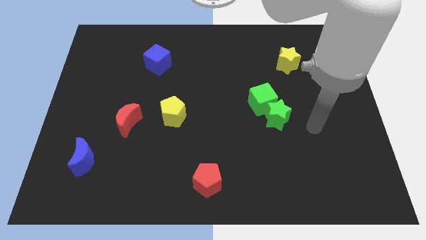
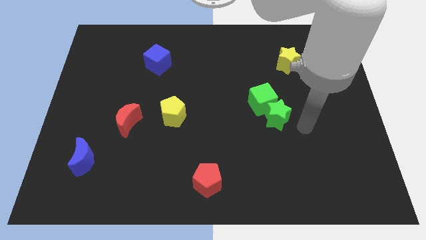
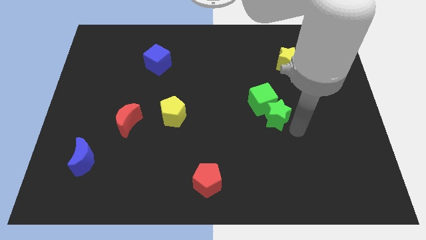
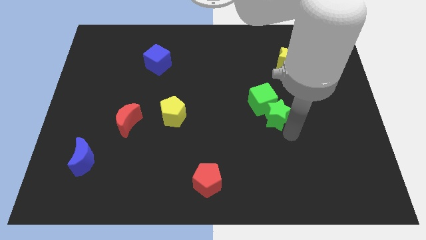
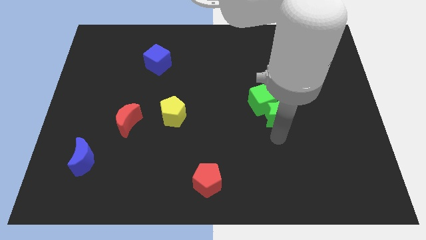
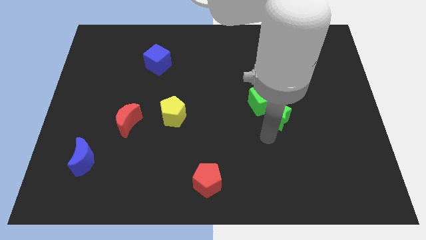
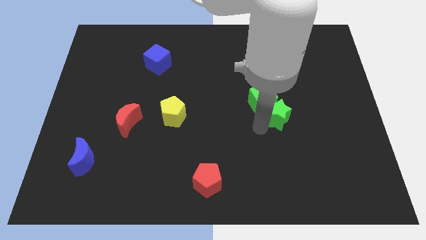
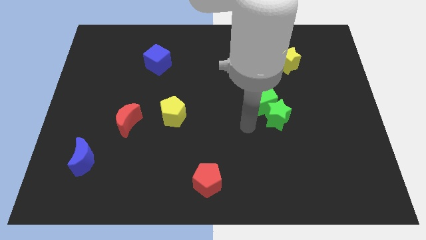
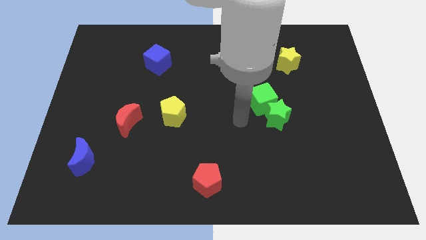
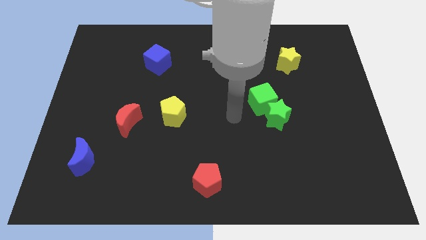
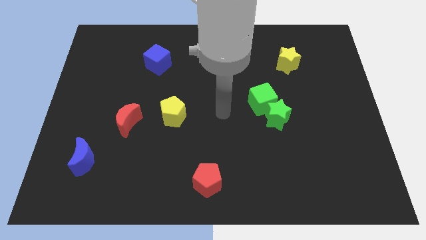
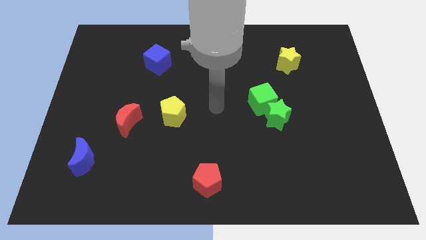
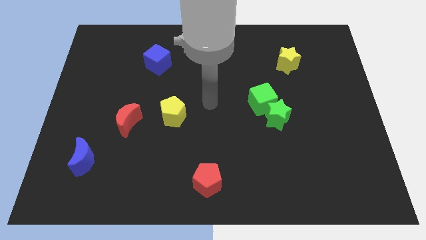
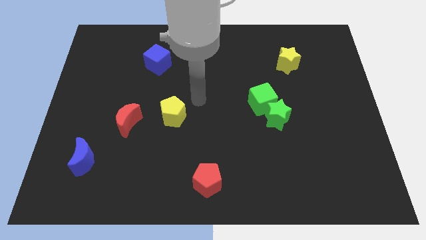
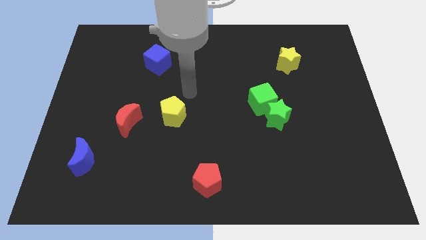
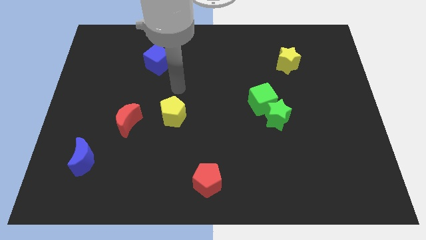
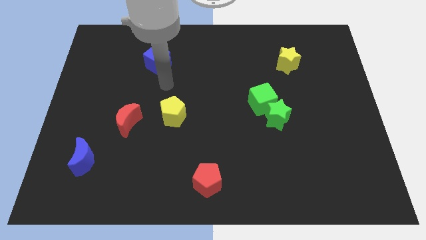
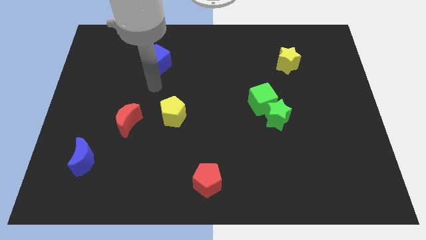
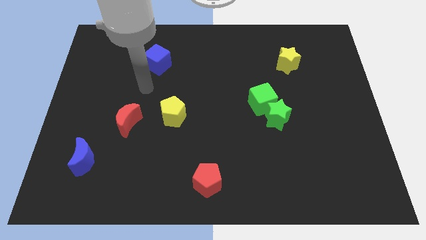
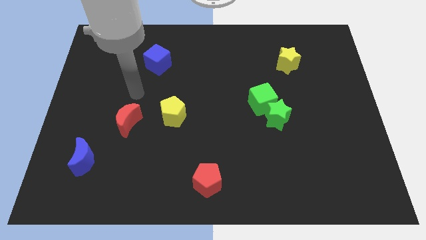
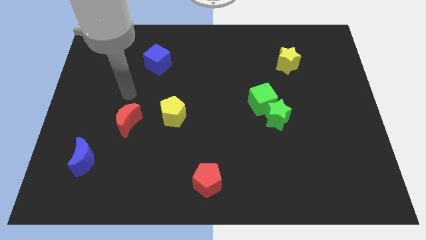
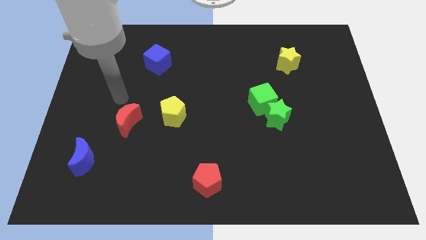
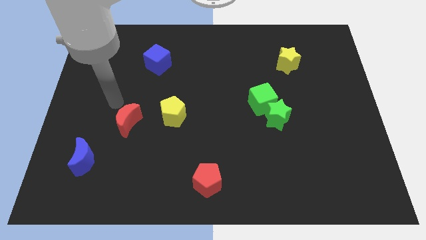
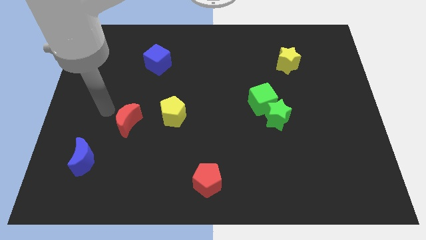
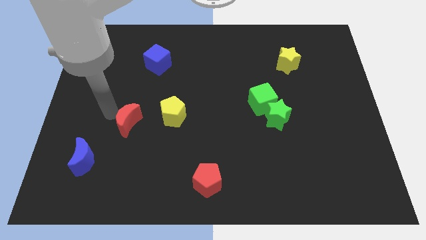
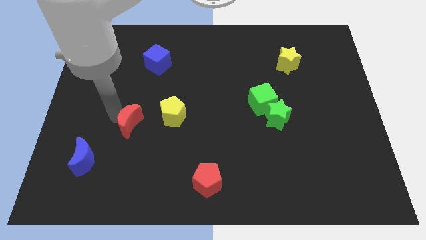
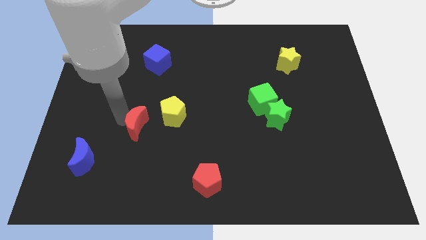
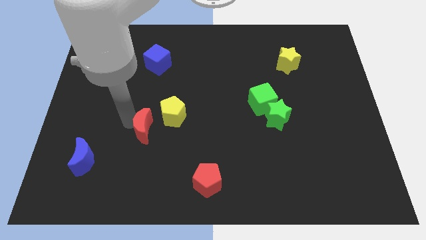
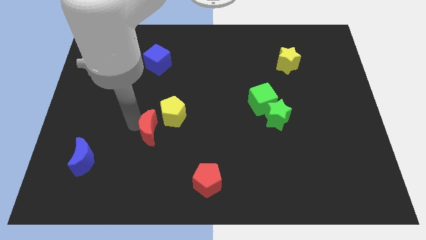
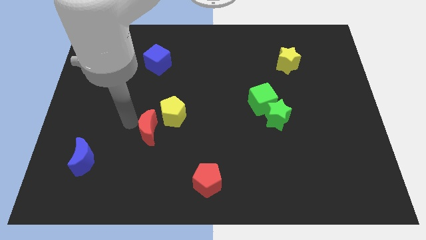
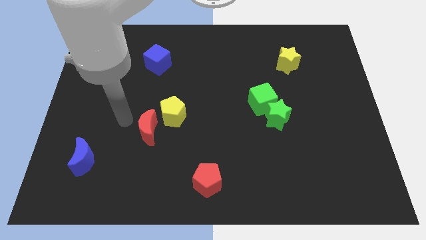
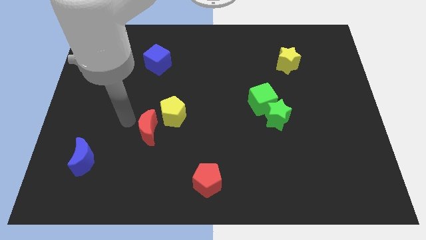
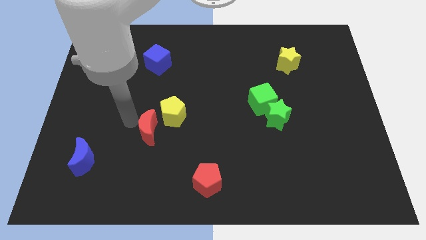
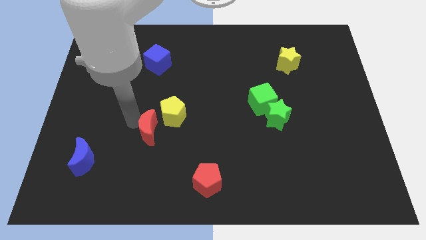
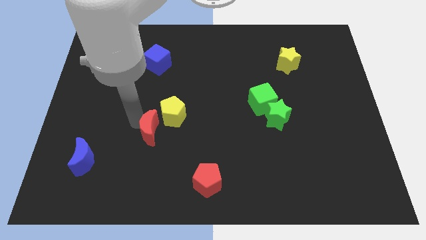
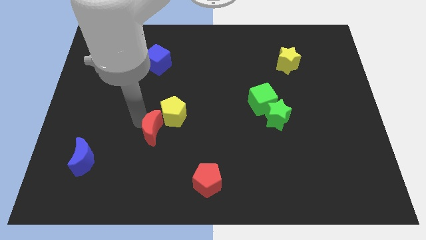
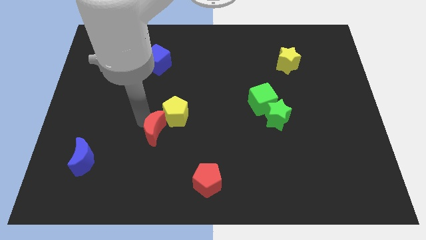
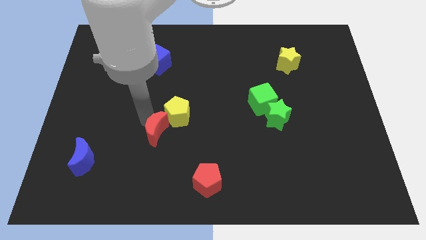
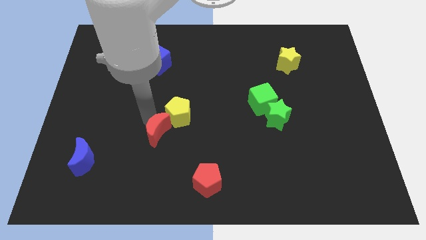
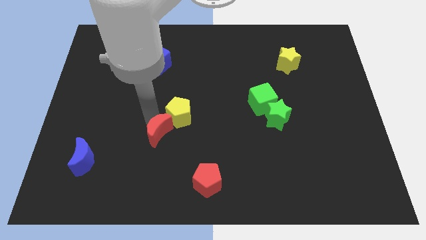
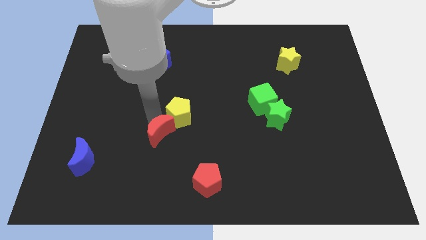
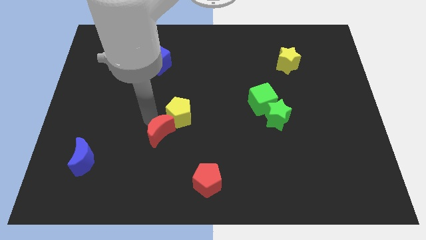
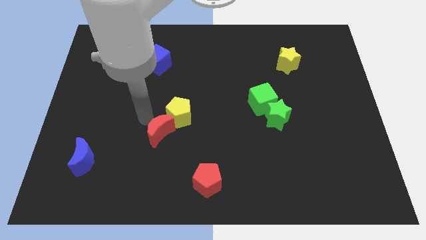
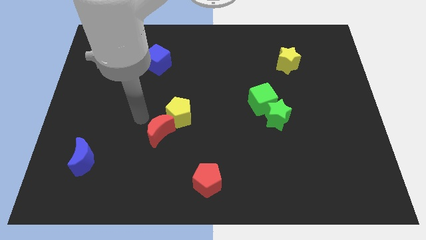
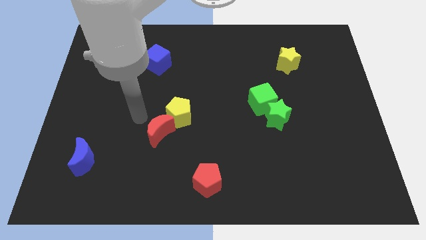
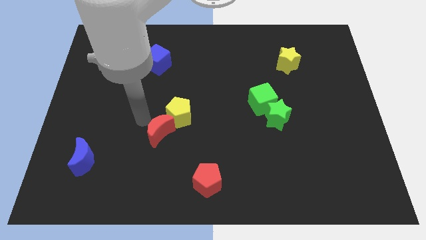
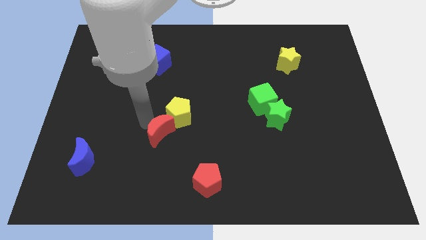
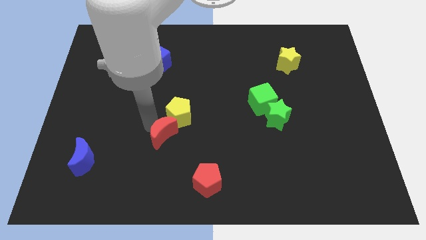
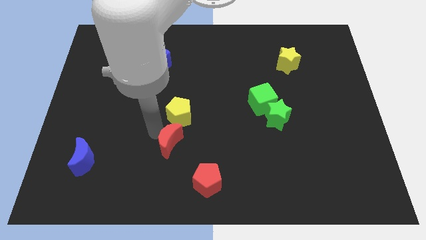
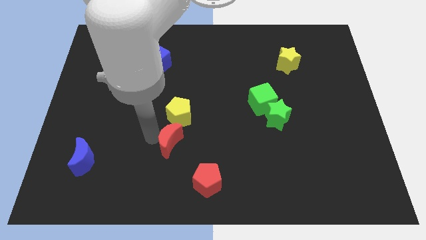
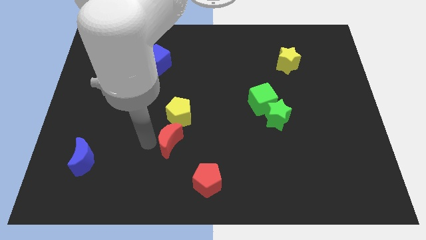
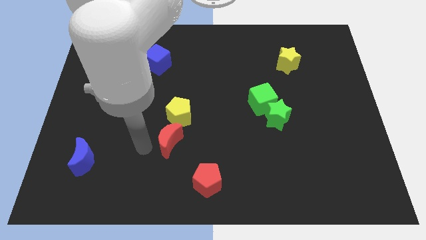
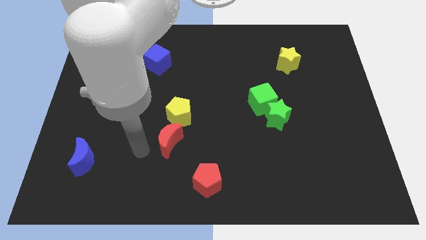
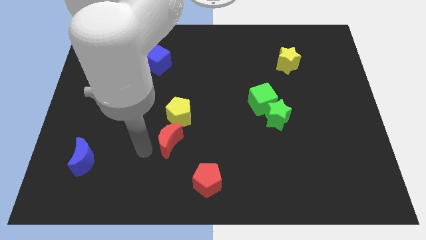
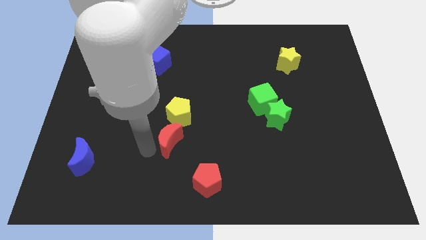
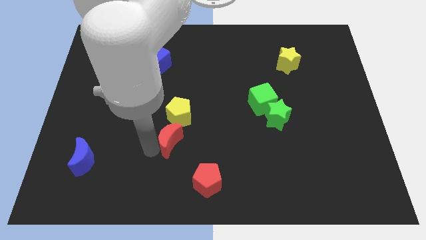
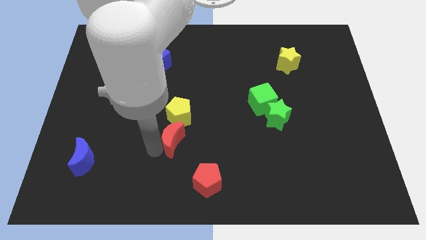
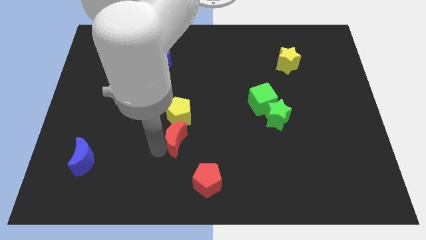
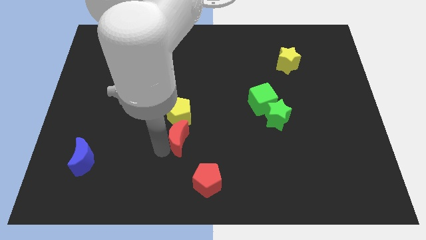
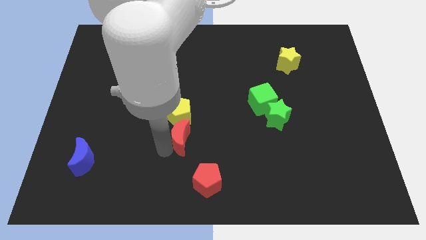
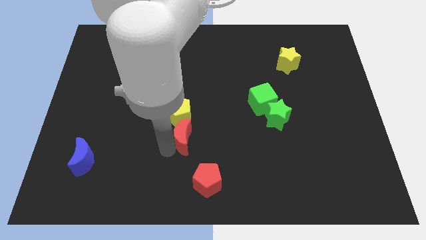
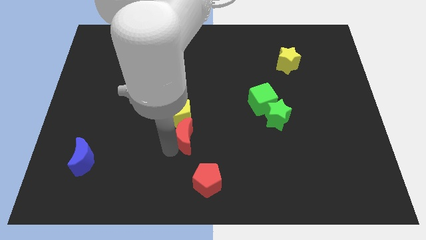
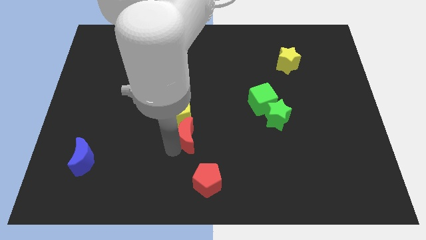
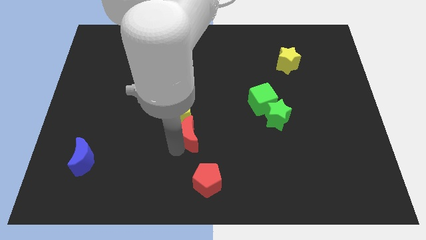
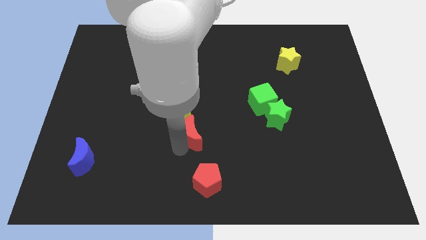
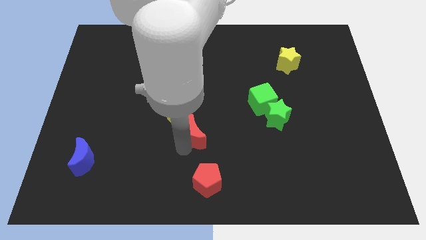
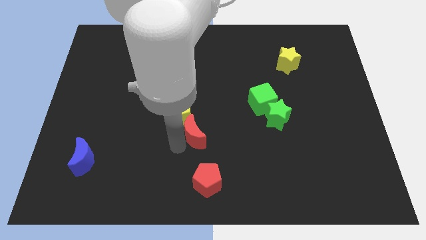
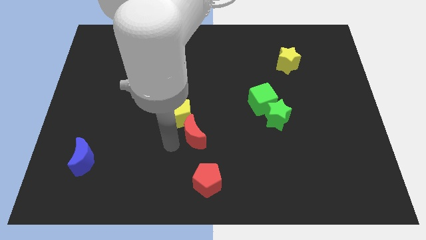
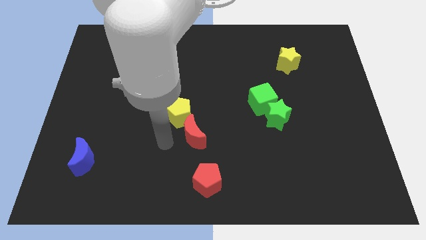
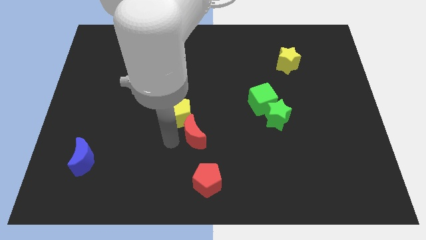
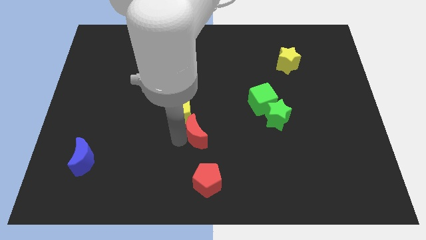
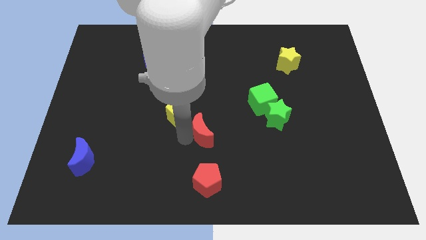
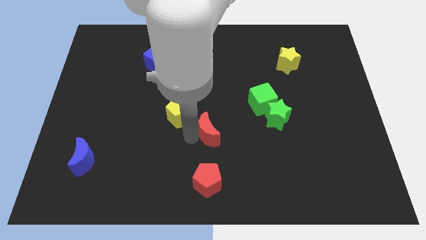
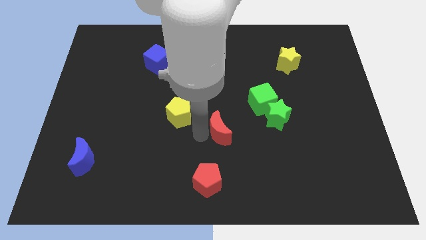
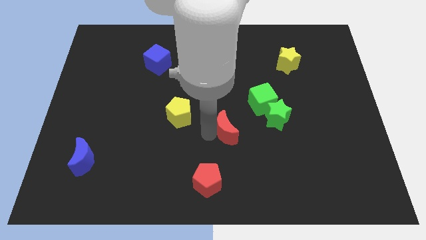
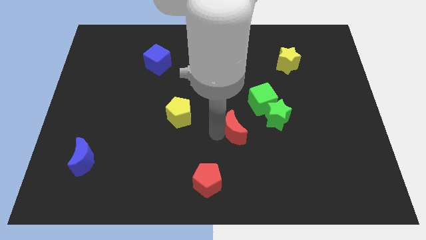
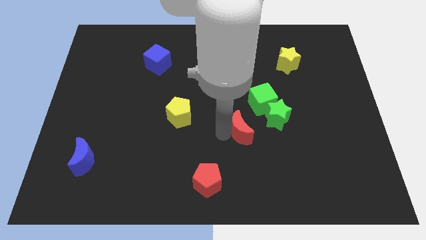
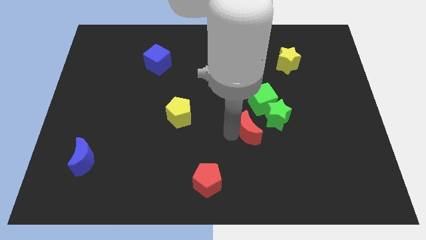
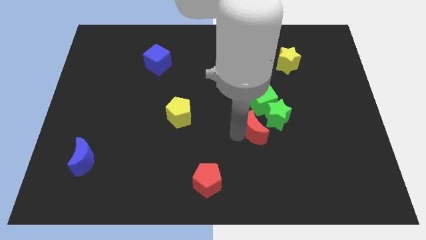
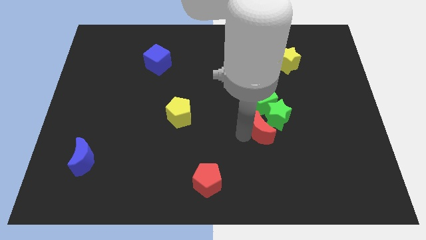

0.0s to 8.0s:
slide the red moon towards the green star

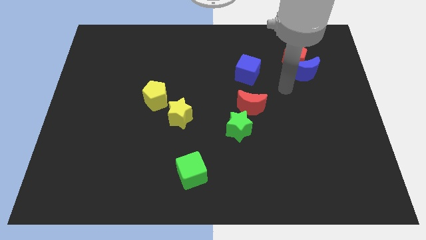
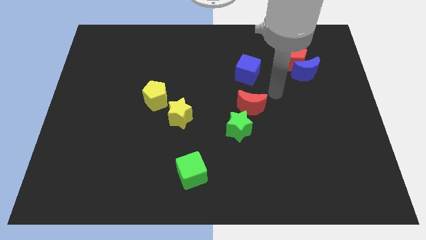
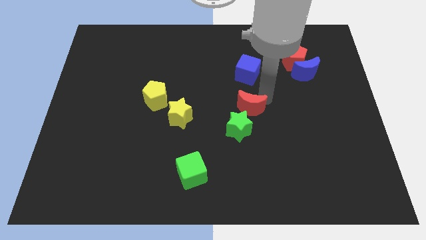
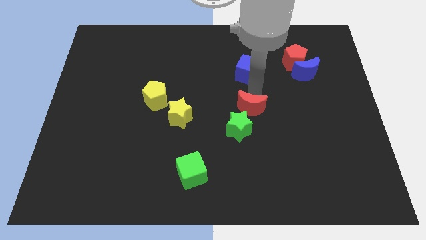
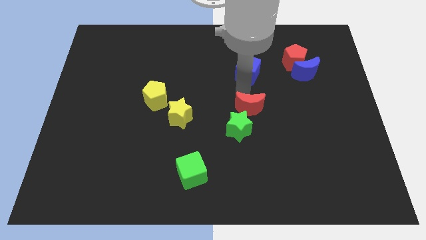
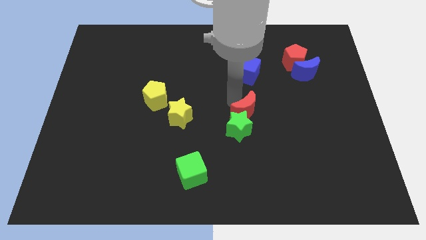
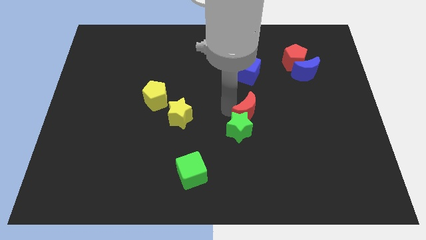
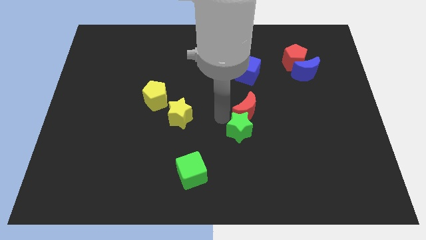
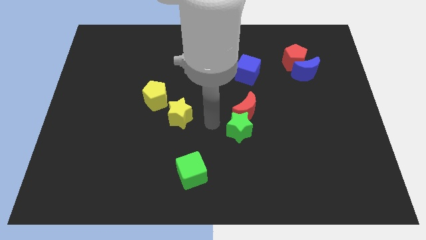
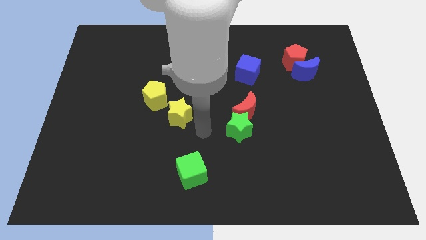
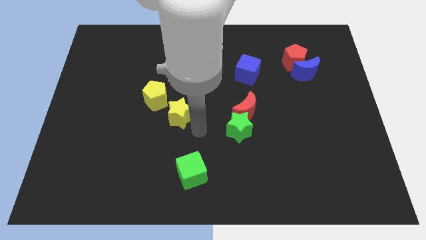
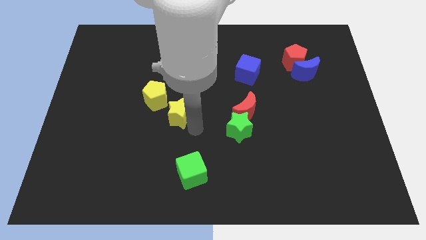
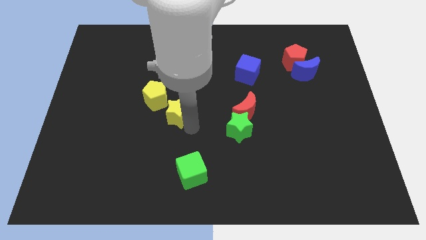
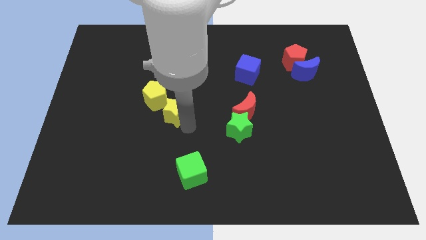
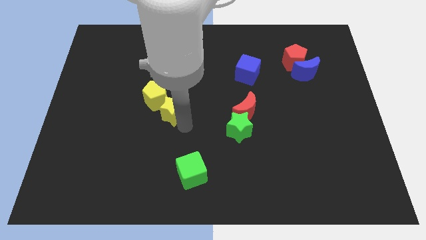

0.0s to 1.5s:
put the yellow star to the yellow pentagon
